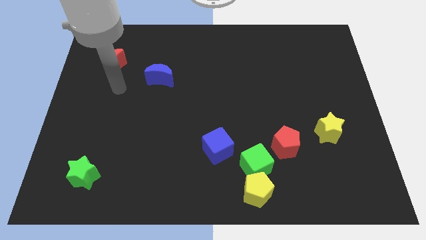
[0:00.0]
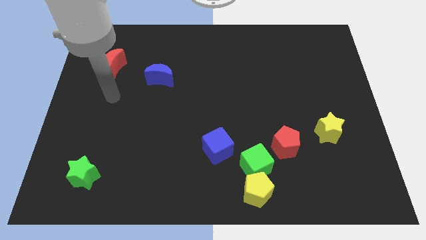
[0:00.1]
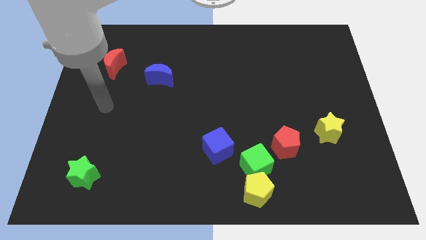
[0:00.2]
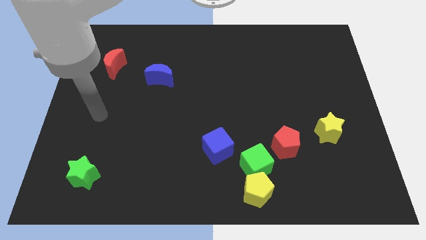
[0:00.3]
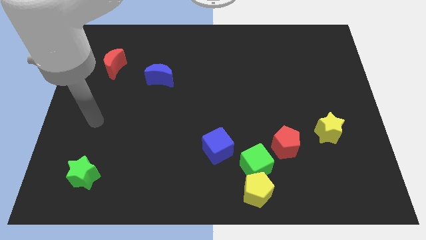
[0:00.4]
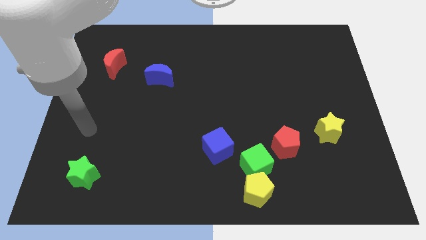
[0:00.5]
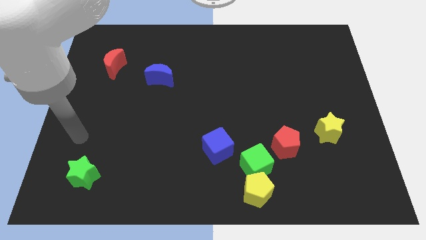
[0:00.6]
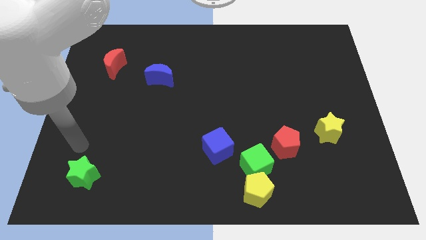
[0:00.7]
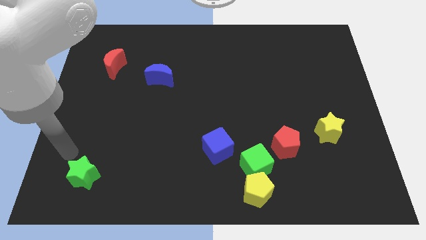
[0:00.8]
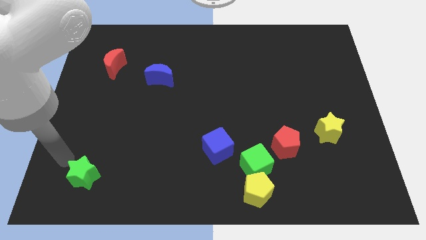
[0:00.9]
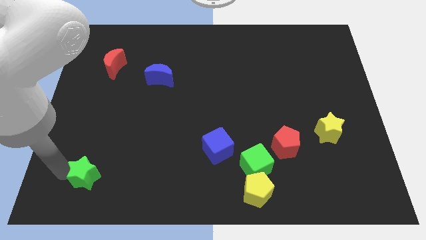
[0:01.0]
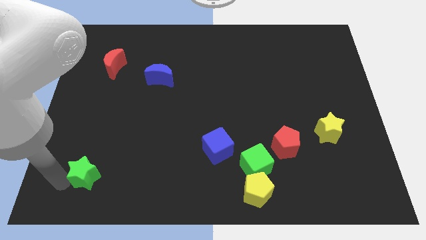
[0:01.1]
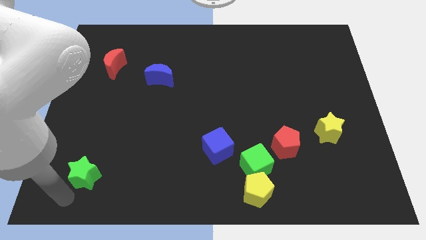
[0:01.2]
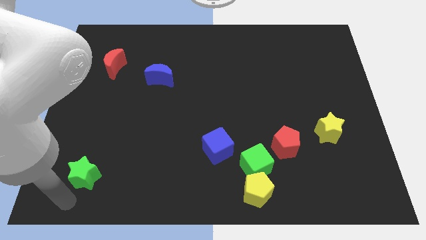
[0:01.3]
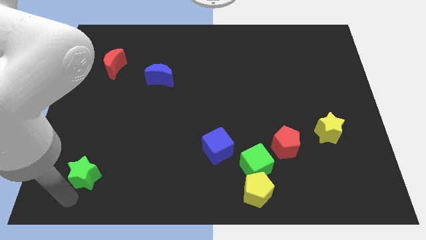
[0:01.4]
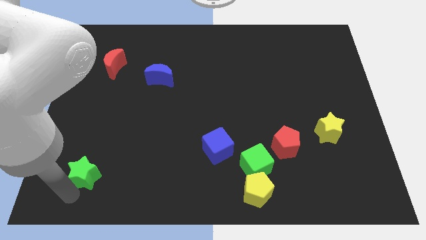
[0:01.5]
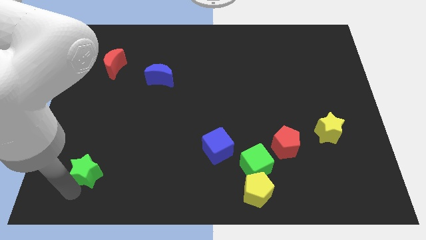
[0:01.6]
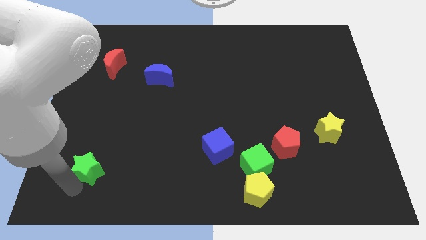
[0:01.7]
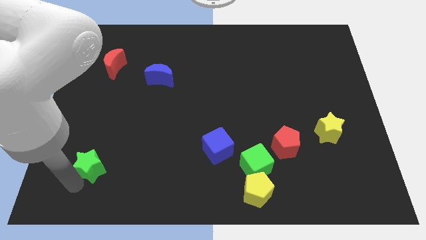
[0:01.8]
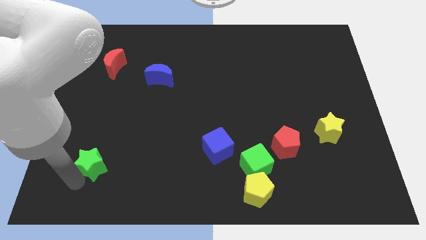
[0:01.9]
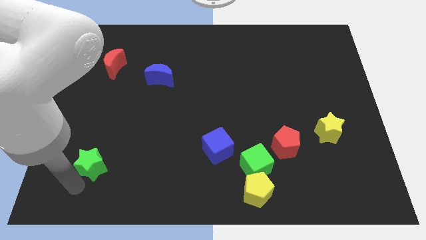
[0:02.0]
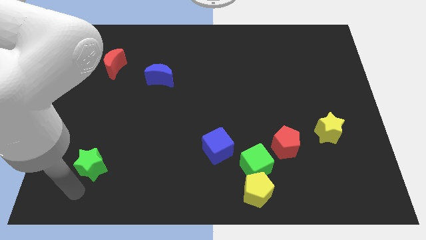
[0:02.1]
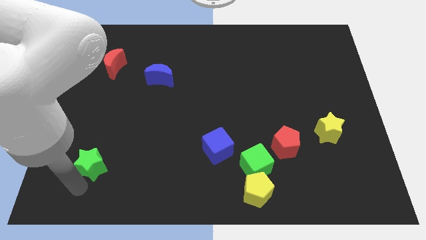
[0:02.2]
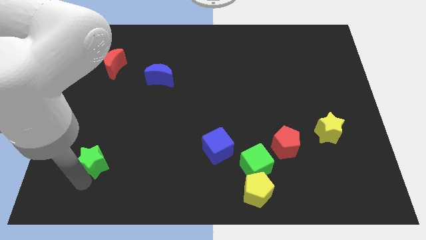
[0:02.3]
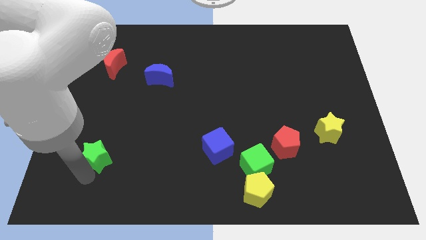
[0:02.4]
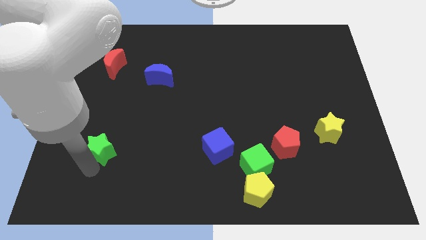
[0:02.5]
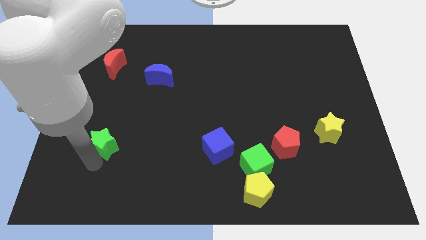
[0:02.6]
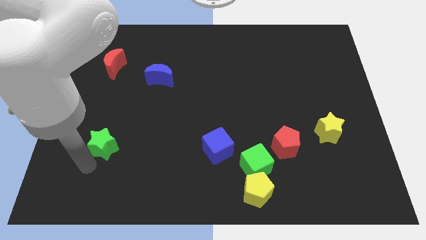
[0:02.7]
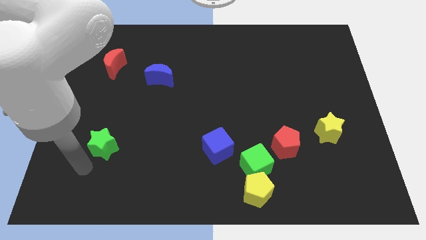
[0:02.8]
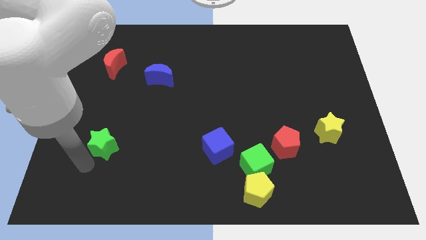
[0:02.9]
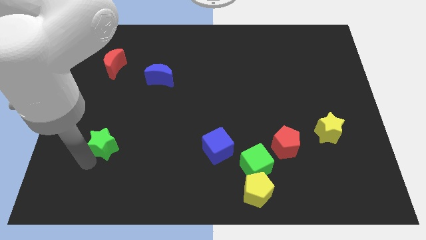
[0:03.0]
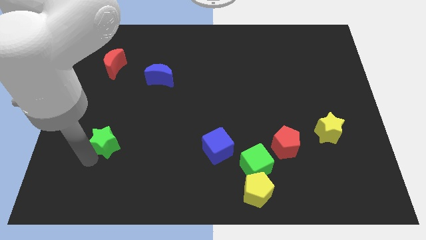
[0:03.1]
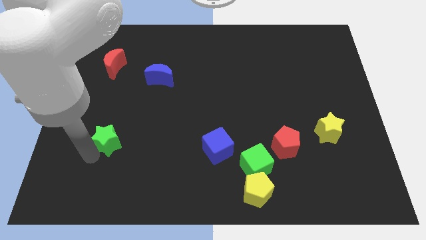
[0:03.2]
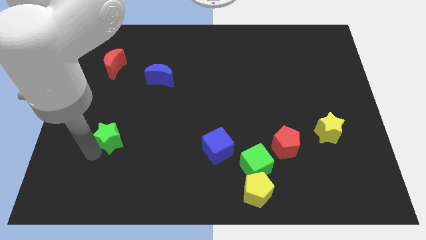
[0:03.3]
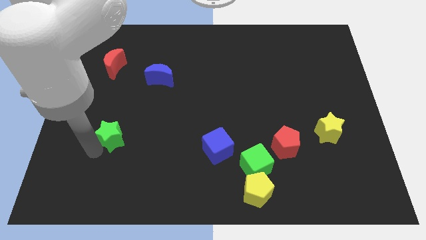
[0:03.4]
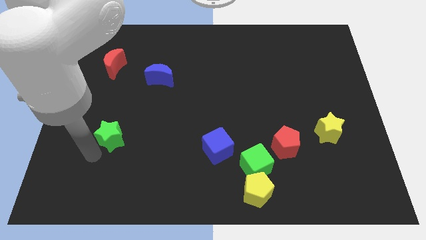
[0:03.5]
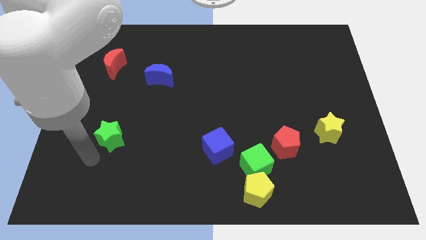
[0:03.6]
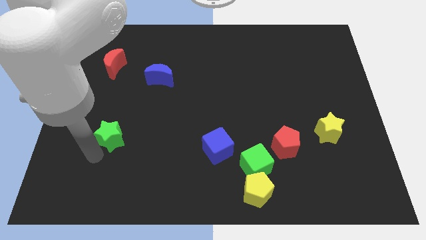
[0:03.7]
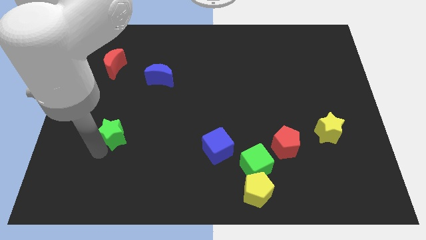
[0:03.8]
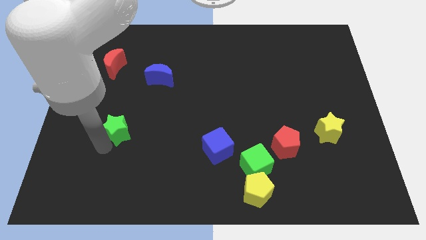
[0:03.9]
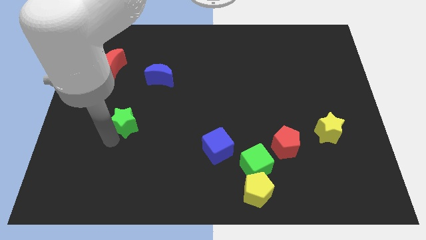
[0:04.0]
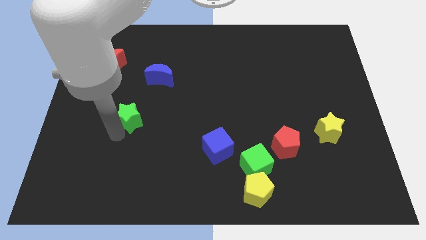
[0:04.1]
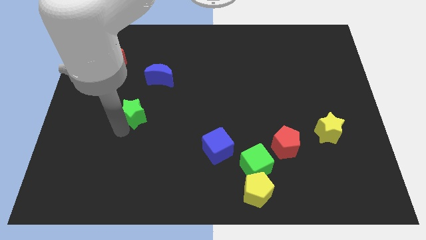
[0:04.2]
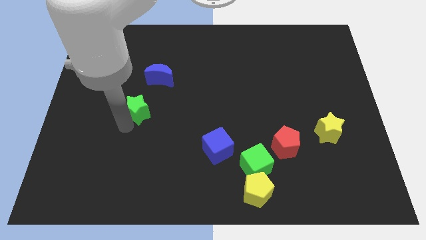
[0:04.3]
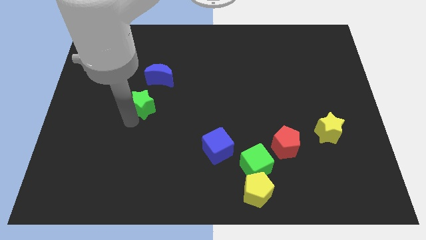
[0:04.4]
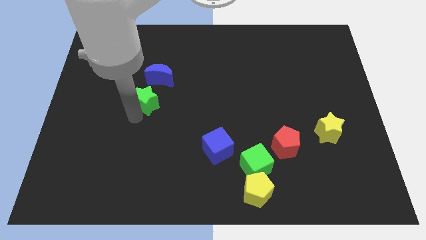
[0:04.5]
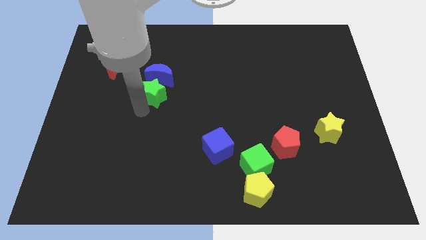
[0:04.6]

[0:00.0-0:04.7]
move the green star next to the blue moon

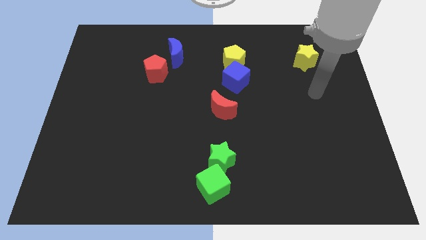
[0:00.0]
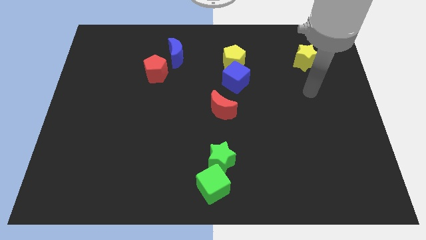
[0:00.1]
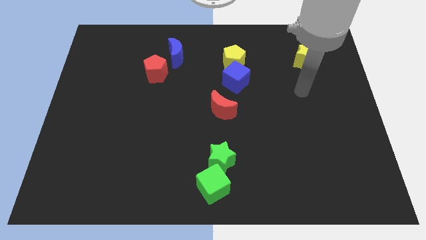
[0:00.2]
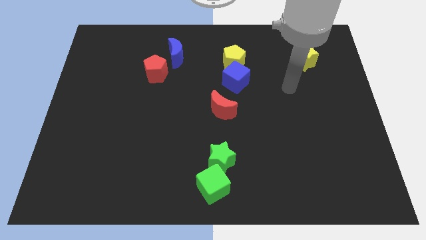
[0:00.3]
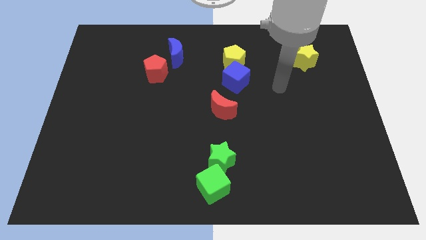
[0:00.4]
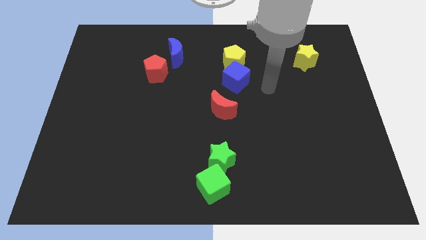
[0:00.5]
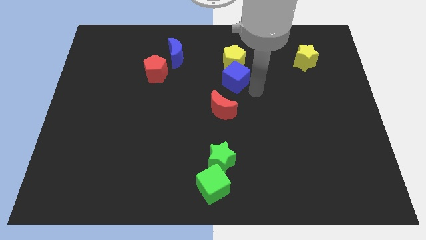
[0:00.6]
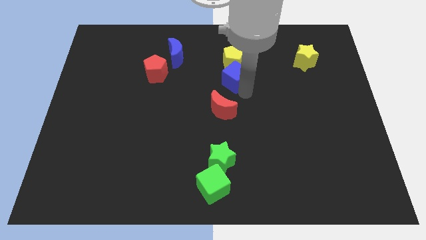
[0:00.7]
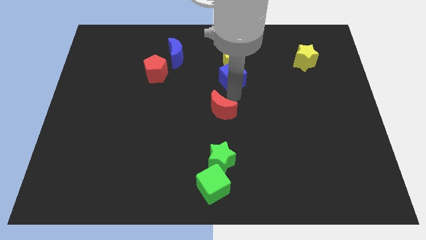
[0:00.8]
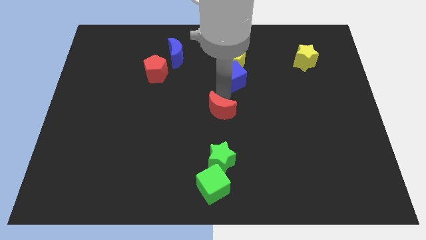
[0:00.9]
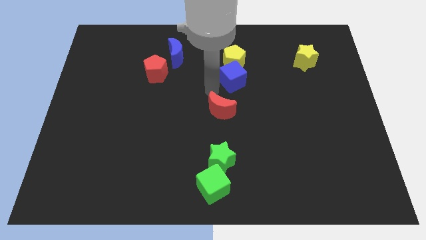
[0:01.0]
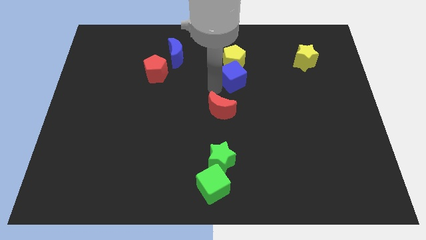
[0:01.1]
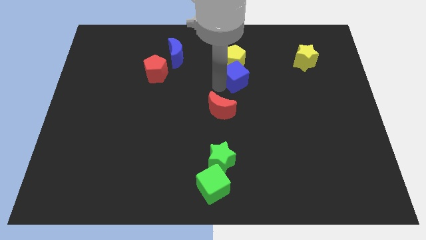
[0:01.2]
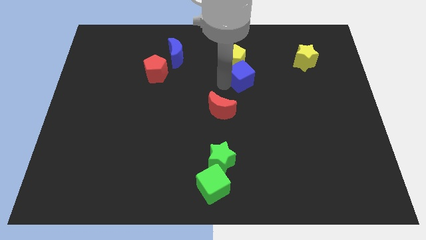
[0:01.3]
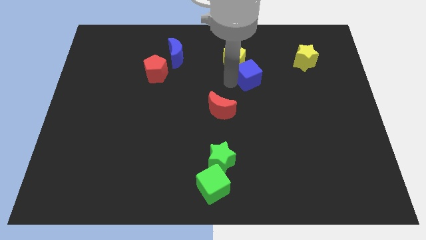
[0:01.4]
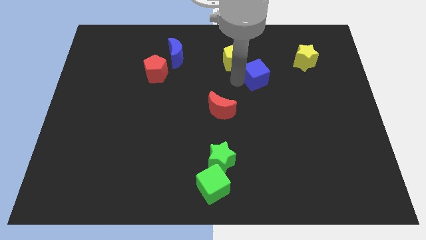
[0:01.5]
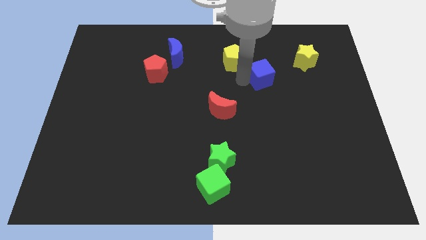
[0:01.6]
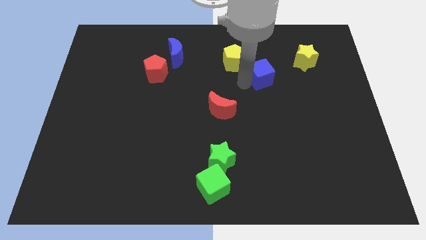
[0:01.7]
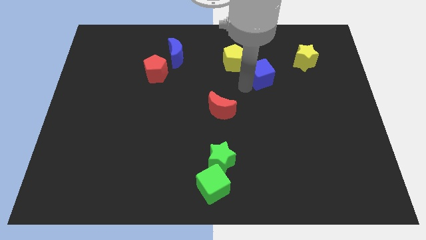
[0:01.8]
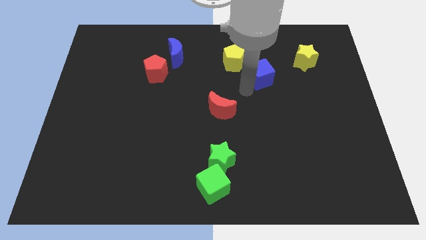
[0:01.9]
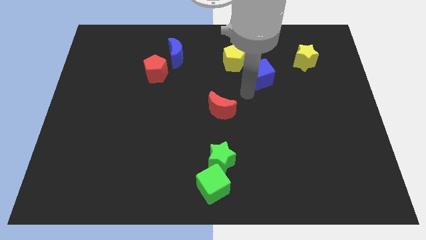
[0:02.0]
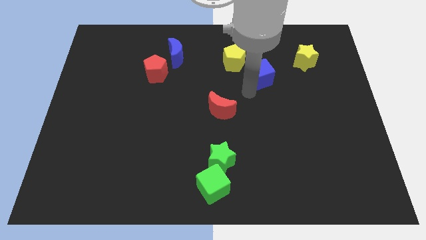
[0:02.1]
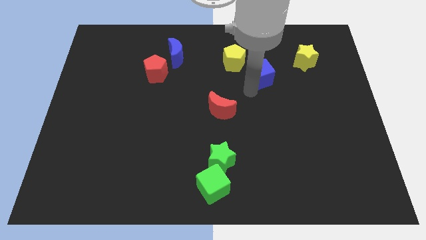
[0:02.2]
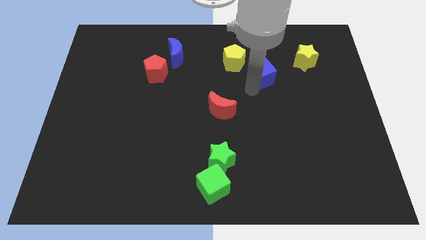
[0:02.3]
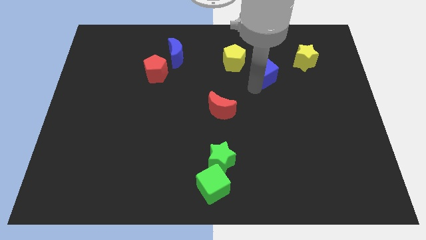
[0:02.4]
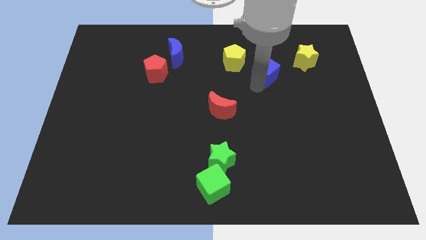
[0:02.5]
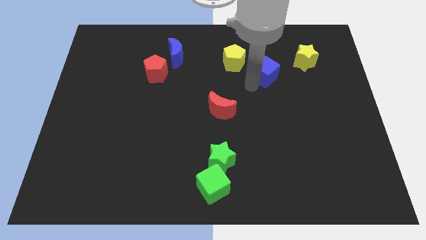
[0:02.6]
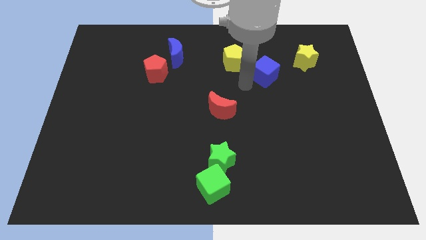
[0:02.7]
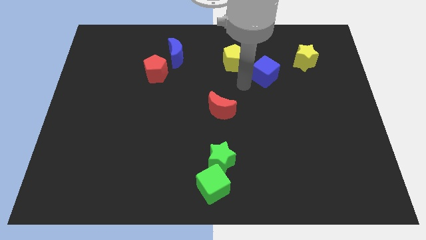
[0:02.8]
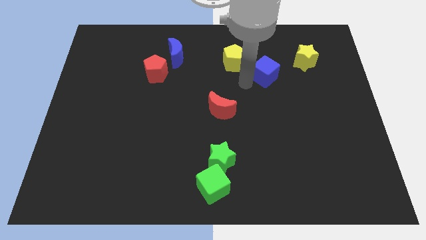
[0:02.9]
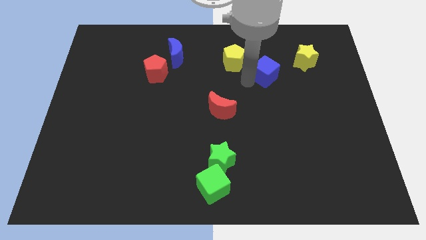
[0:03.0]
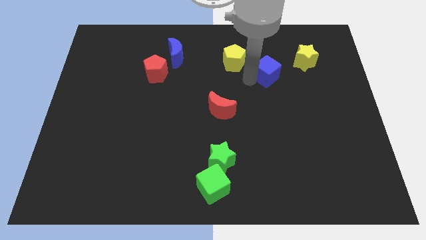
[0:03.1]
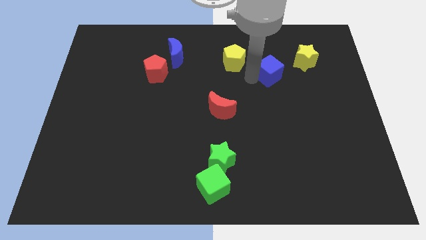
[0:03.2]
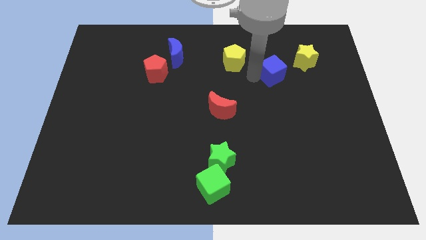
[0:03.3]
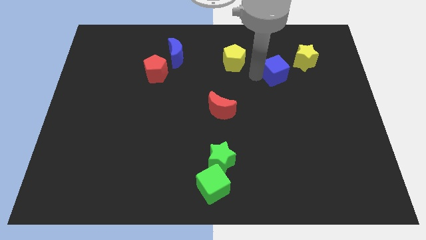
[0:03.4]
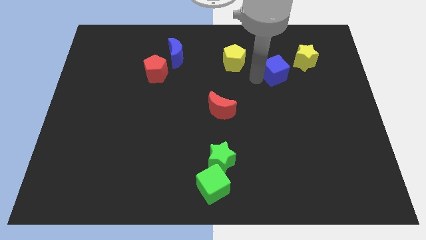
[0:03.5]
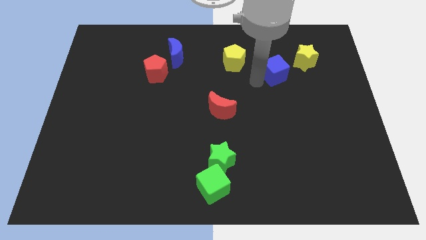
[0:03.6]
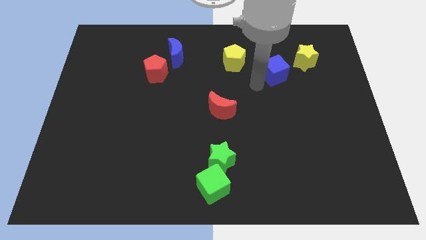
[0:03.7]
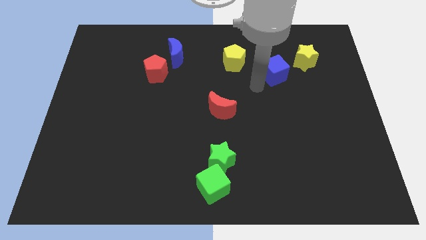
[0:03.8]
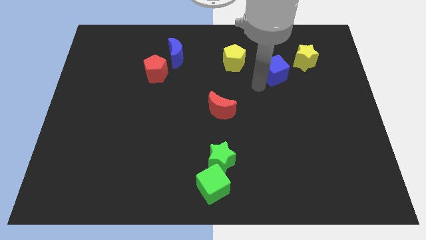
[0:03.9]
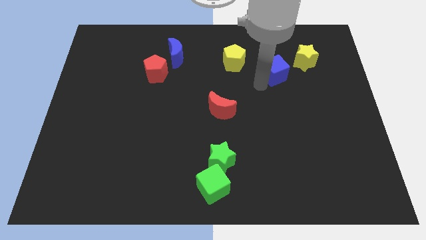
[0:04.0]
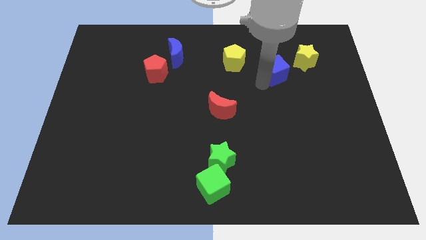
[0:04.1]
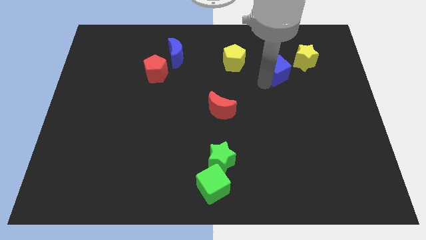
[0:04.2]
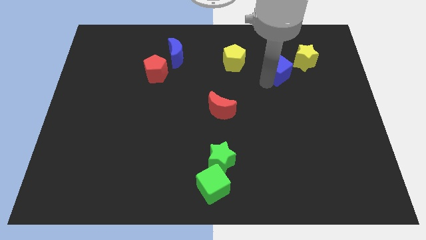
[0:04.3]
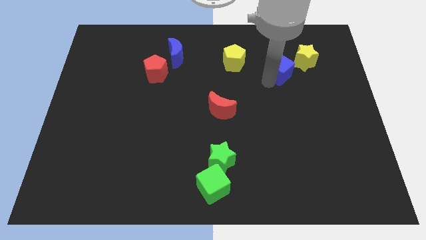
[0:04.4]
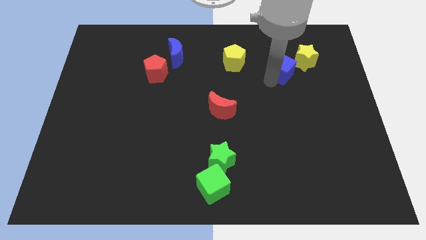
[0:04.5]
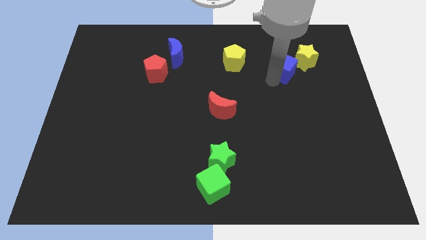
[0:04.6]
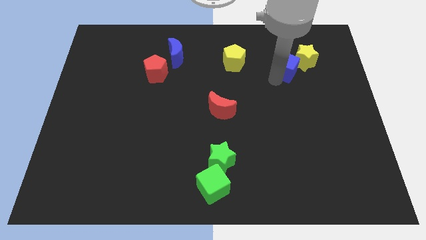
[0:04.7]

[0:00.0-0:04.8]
move the blue cube next to the yellow star
